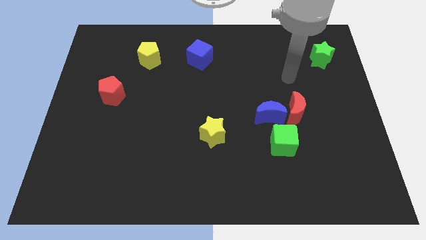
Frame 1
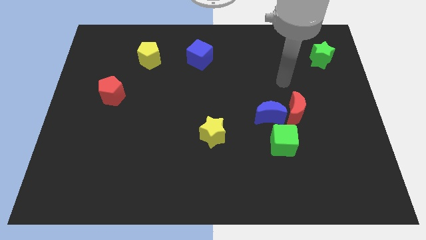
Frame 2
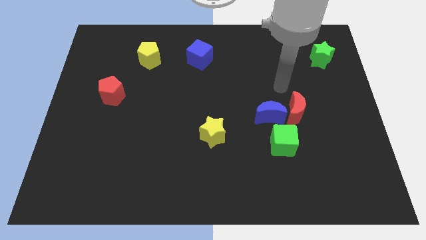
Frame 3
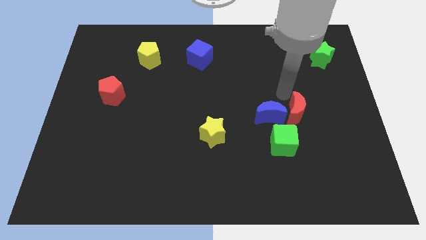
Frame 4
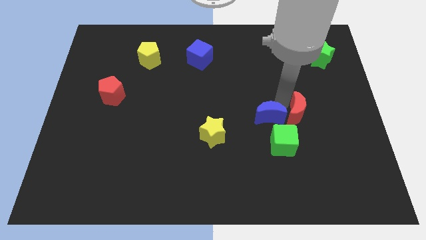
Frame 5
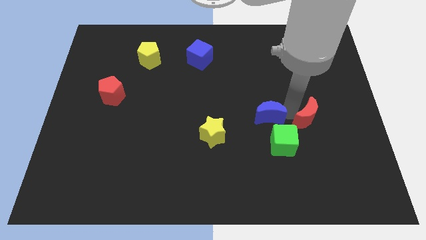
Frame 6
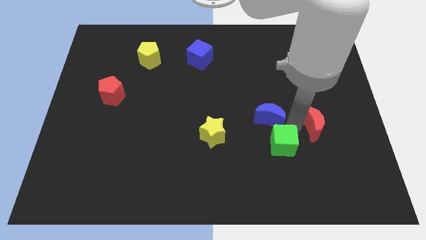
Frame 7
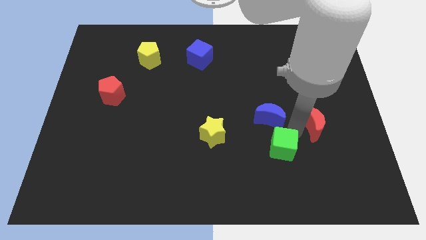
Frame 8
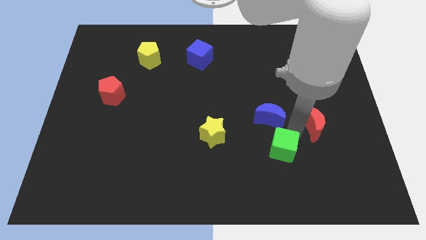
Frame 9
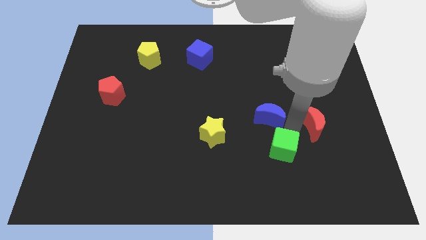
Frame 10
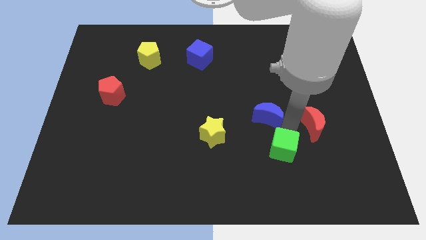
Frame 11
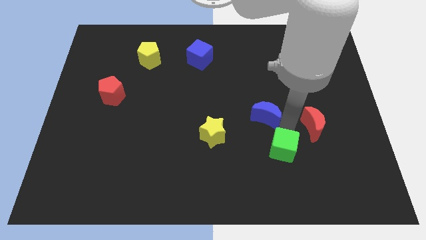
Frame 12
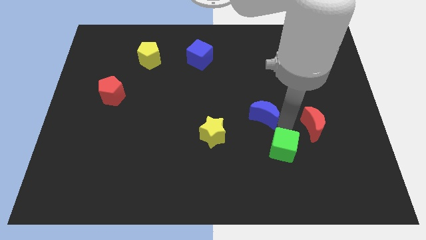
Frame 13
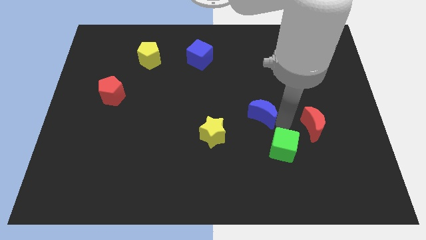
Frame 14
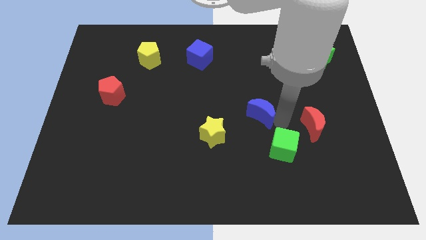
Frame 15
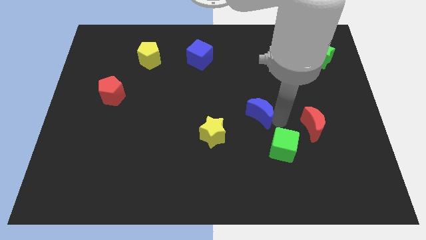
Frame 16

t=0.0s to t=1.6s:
separate the blue moon from the red moon and green cube

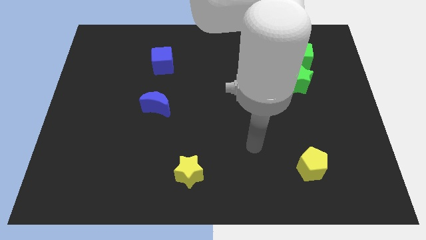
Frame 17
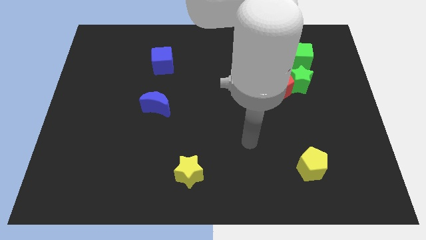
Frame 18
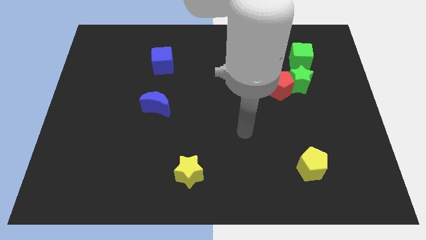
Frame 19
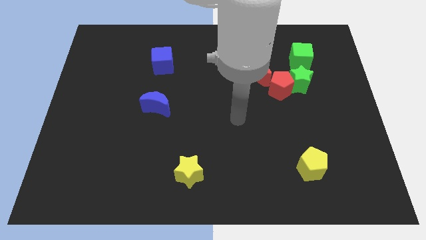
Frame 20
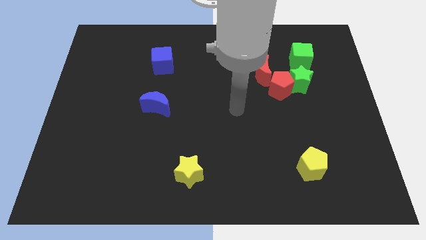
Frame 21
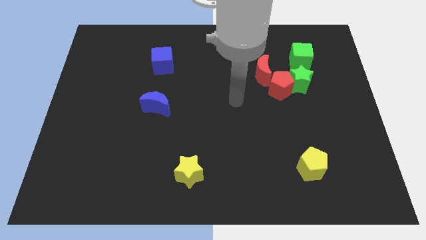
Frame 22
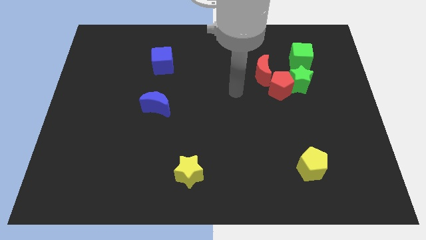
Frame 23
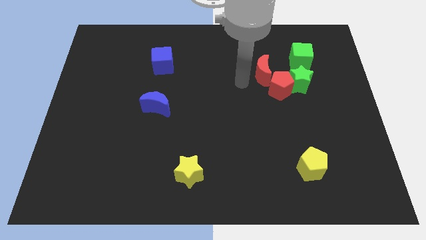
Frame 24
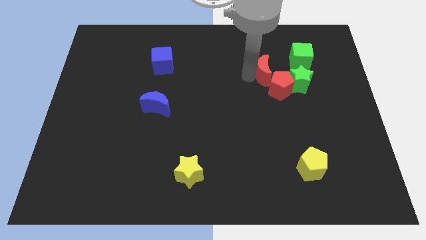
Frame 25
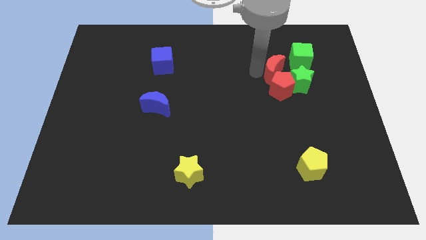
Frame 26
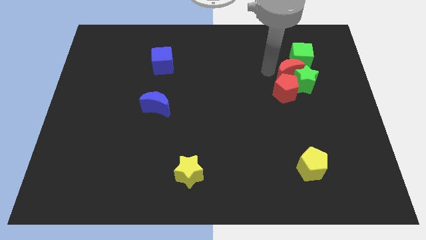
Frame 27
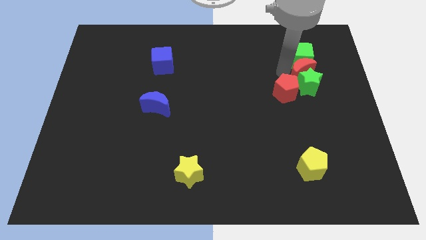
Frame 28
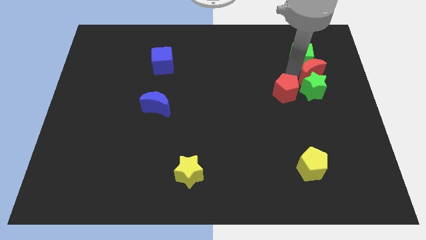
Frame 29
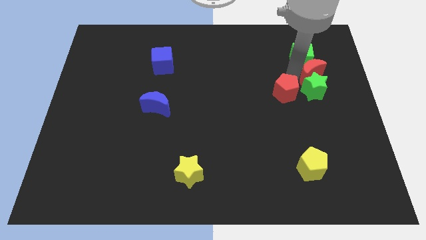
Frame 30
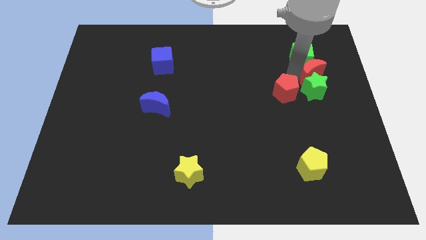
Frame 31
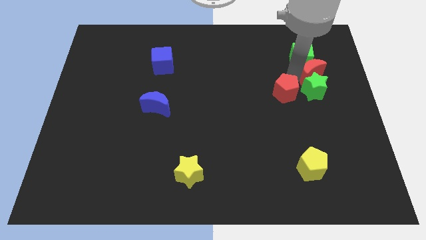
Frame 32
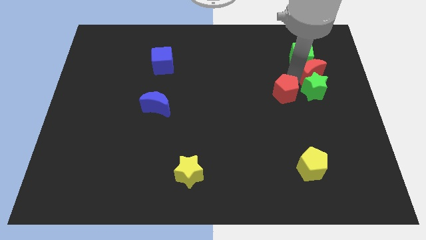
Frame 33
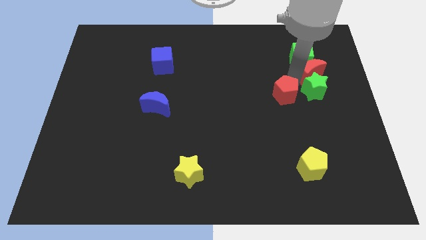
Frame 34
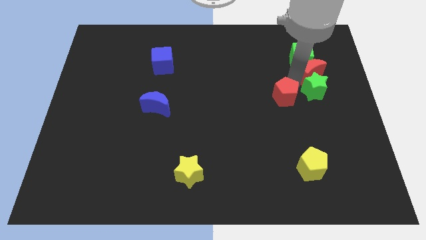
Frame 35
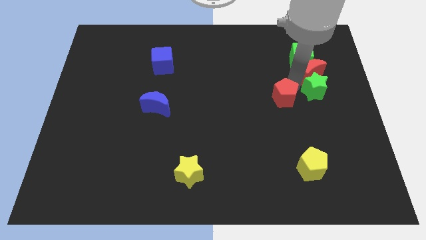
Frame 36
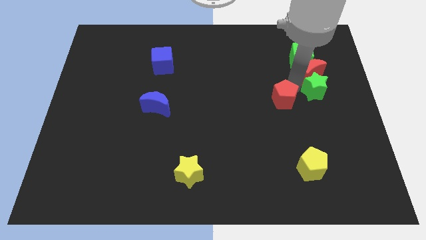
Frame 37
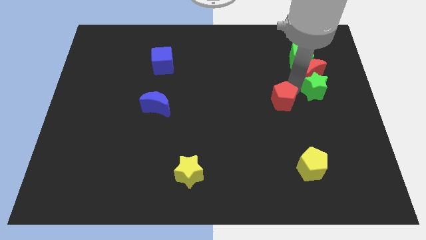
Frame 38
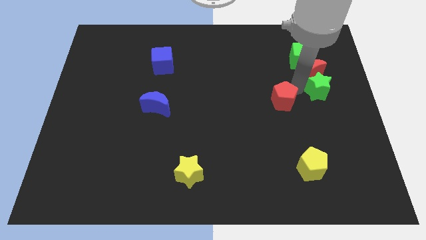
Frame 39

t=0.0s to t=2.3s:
move the red pentagon away from the green star and red moon

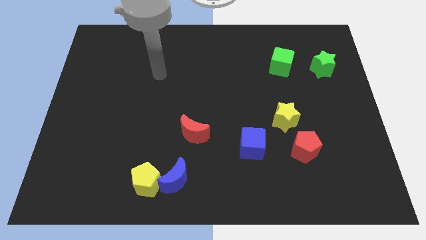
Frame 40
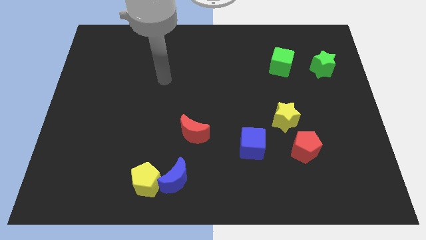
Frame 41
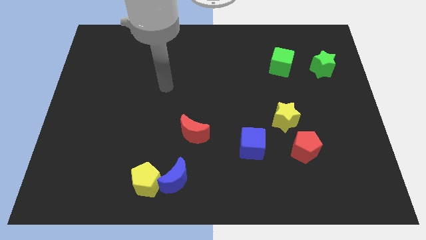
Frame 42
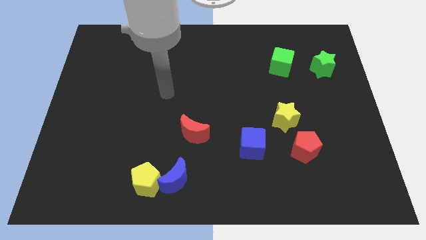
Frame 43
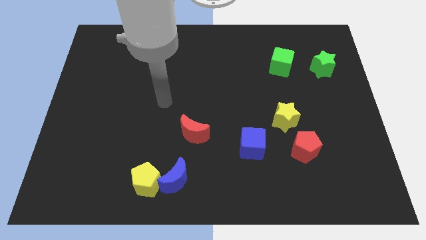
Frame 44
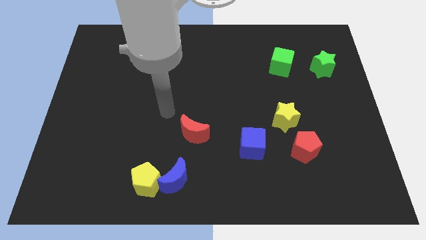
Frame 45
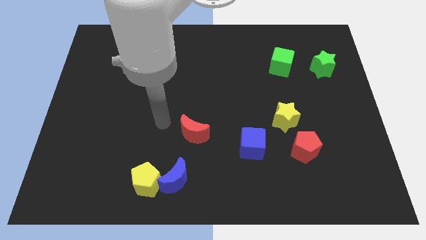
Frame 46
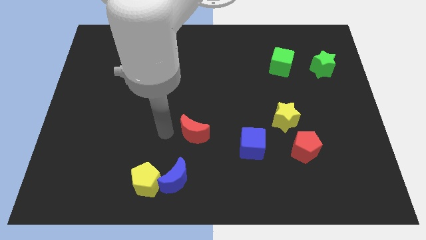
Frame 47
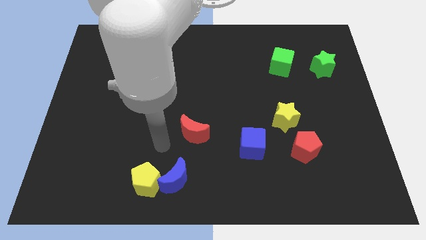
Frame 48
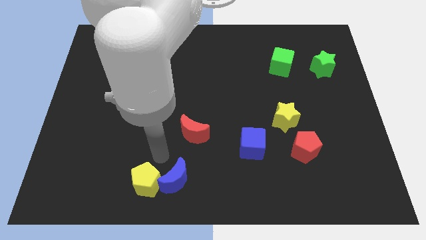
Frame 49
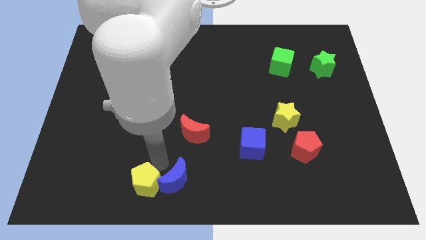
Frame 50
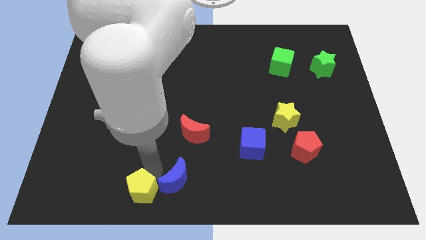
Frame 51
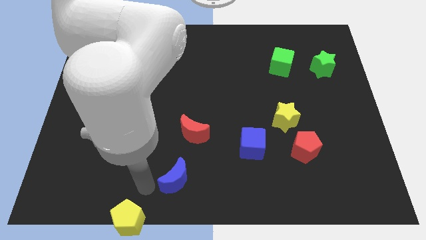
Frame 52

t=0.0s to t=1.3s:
move the blue moon away from the yellow pentagon

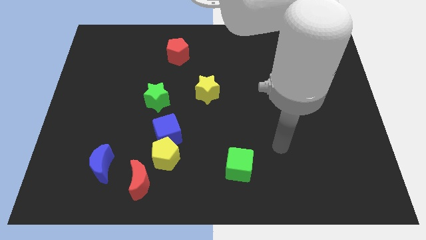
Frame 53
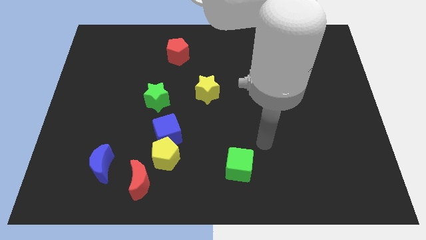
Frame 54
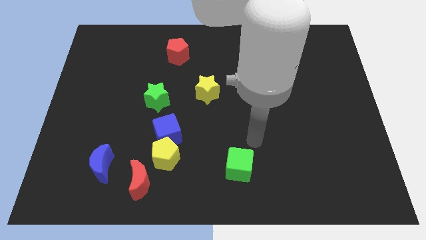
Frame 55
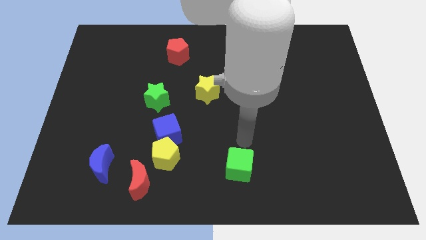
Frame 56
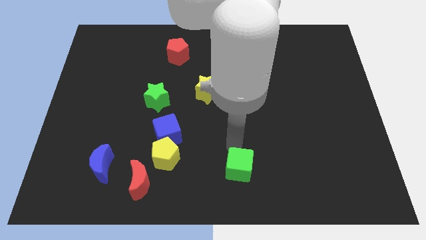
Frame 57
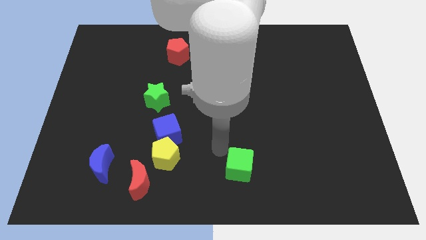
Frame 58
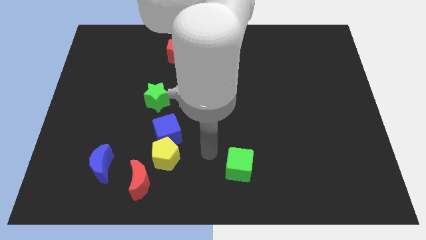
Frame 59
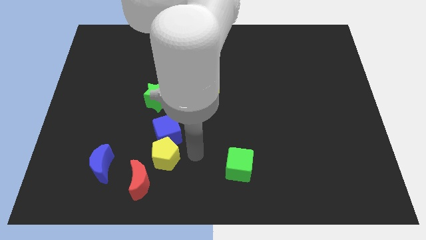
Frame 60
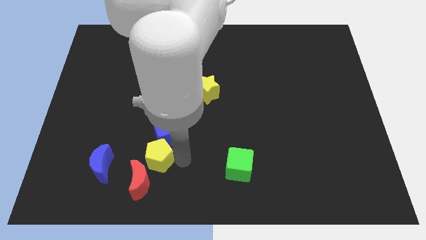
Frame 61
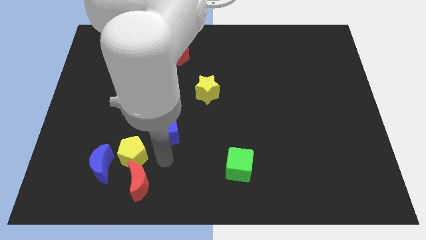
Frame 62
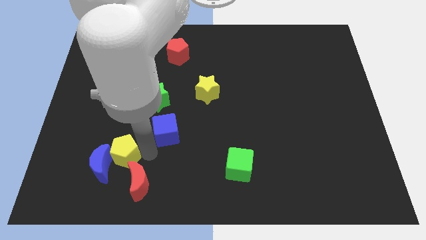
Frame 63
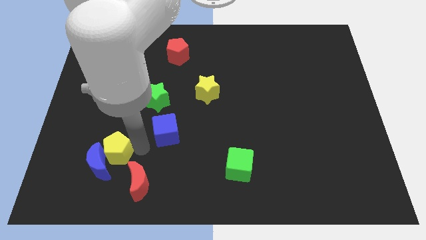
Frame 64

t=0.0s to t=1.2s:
pull the blue cube apart from the yellow pentagon

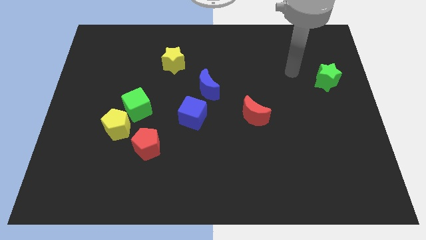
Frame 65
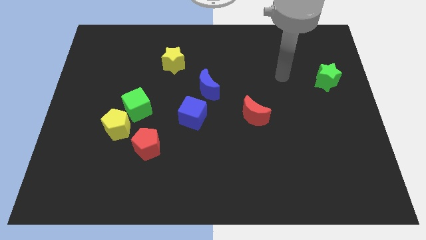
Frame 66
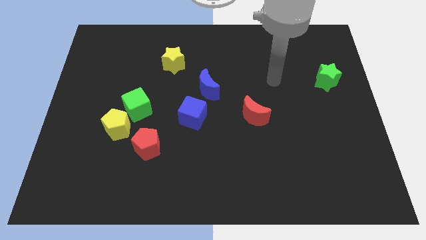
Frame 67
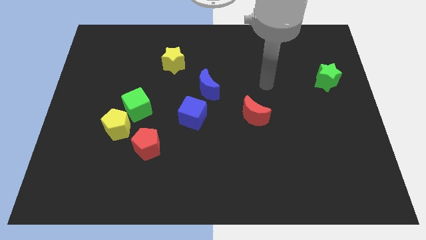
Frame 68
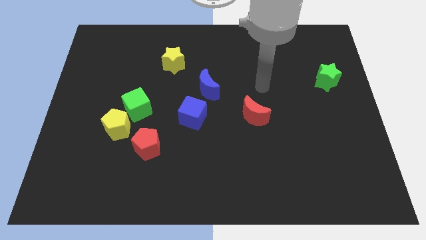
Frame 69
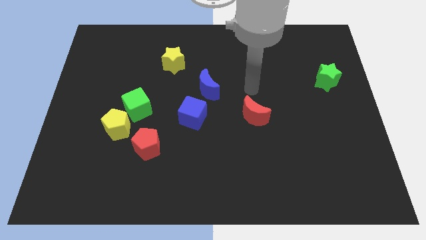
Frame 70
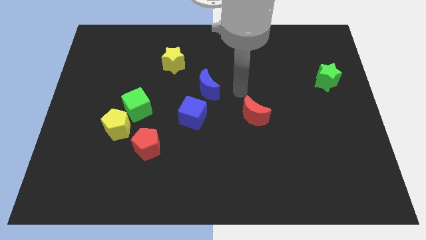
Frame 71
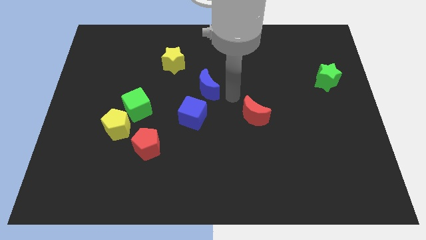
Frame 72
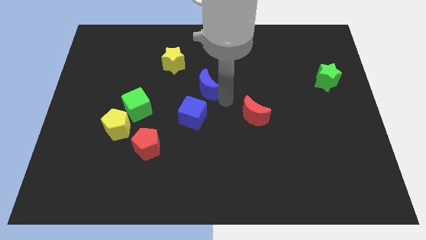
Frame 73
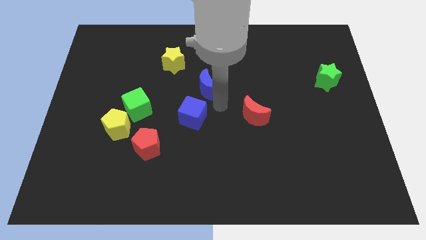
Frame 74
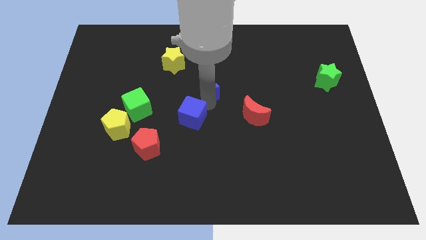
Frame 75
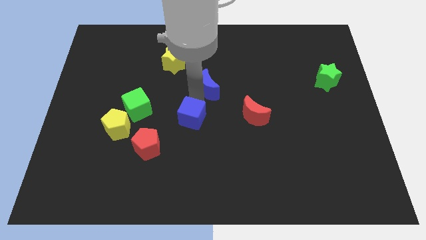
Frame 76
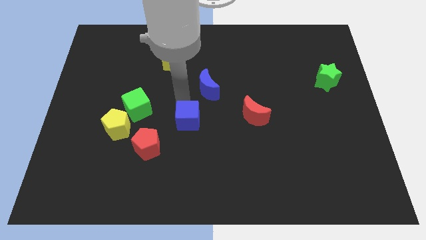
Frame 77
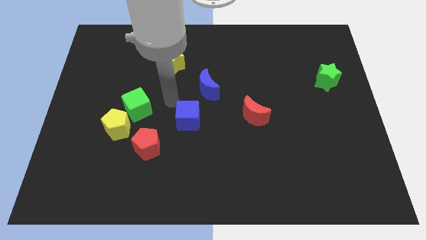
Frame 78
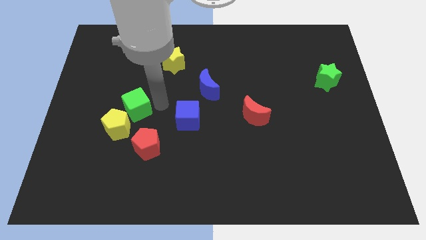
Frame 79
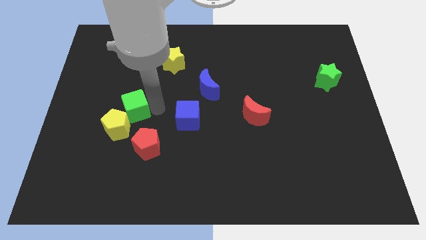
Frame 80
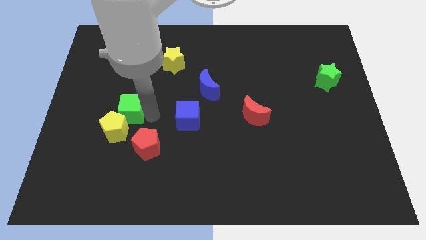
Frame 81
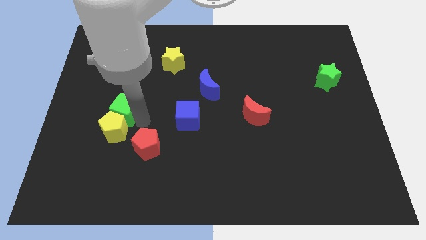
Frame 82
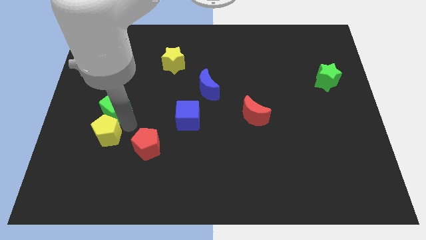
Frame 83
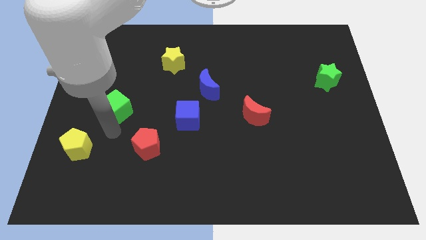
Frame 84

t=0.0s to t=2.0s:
pull the green cube apart from the yellow pentagon

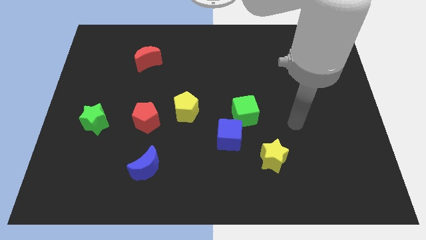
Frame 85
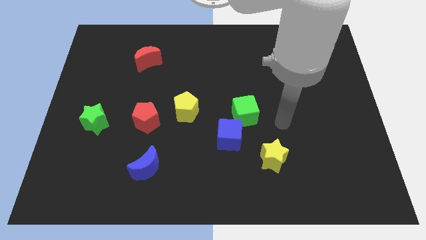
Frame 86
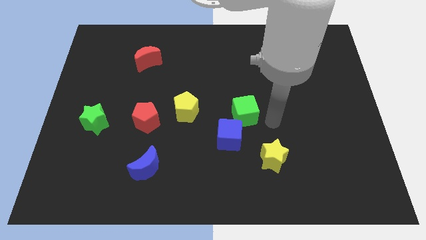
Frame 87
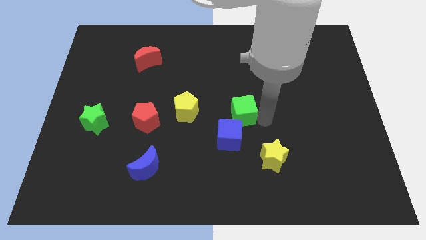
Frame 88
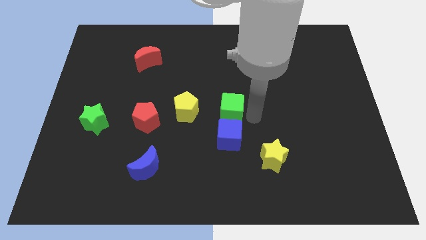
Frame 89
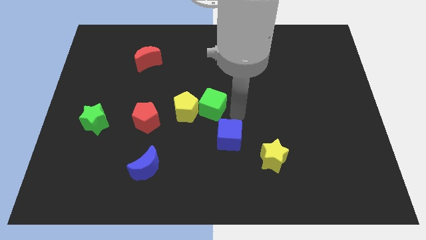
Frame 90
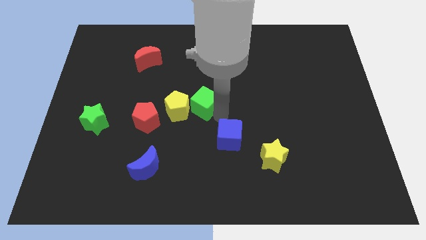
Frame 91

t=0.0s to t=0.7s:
separate the blue cube from the green cube

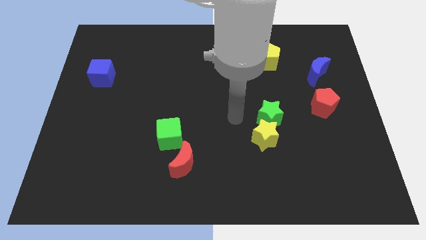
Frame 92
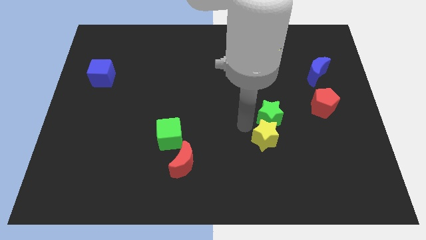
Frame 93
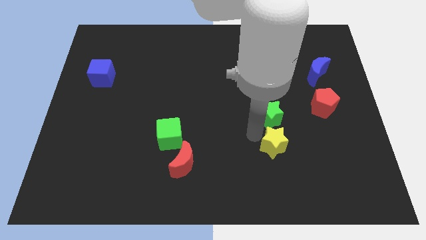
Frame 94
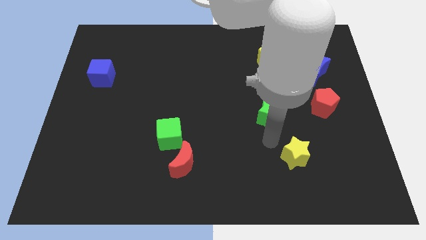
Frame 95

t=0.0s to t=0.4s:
separate the green star from the yellow star
